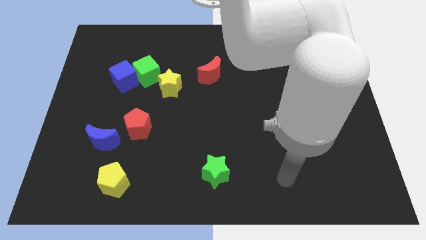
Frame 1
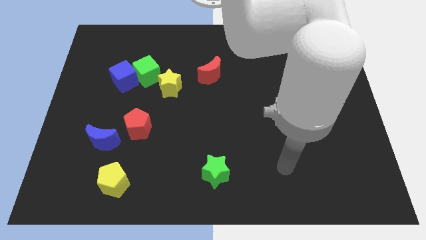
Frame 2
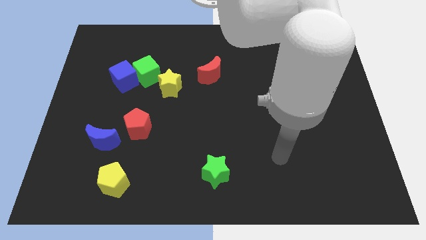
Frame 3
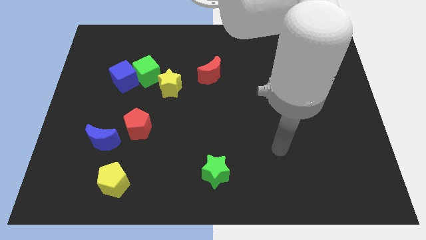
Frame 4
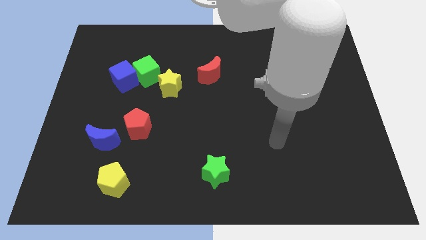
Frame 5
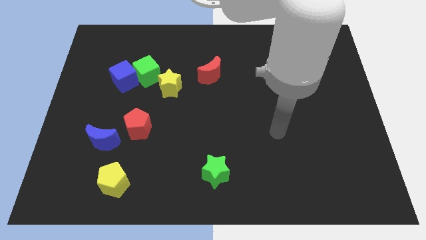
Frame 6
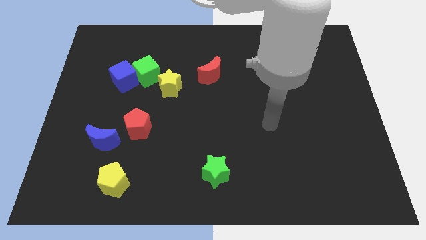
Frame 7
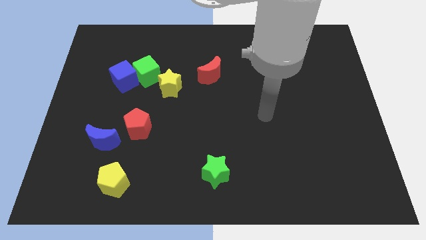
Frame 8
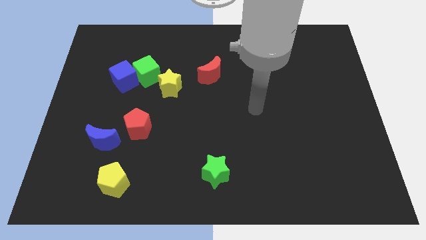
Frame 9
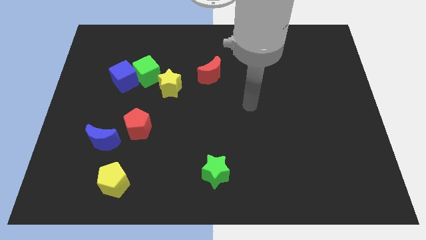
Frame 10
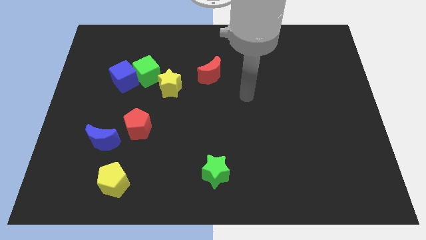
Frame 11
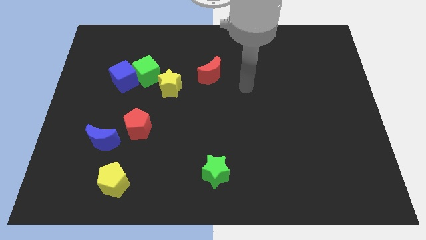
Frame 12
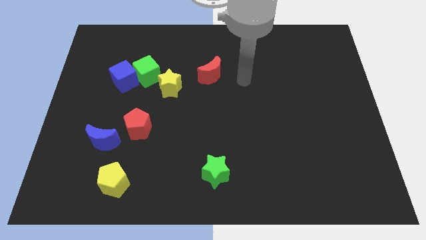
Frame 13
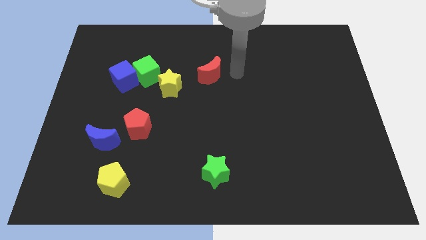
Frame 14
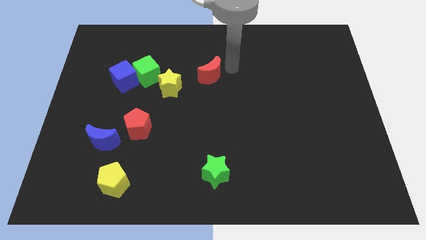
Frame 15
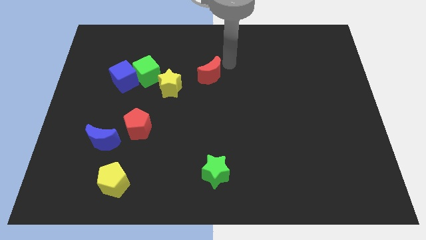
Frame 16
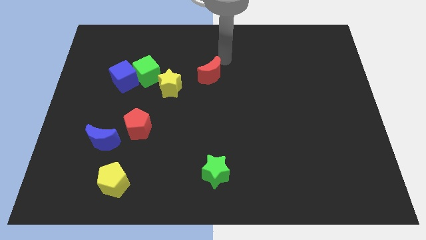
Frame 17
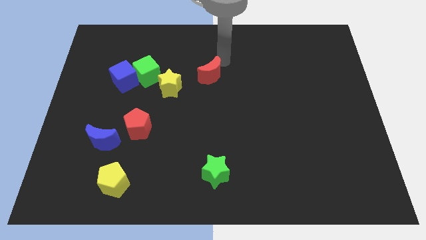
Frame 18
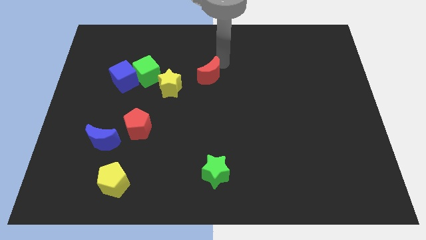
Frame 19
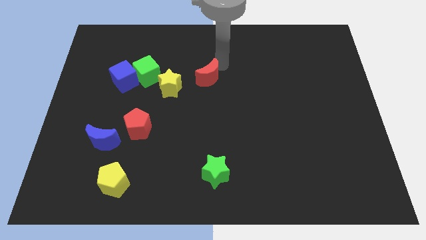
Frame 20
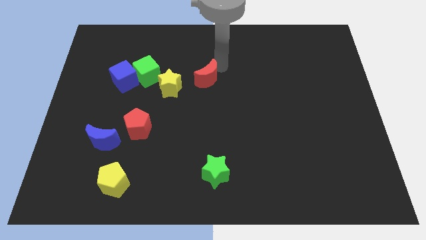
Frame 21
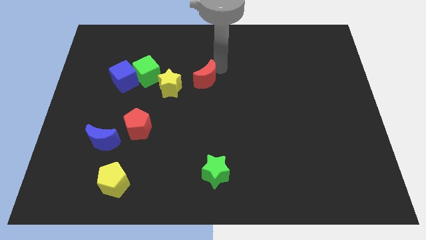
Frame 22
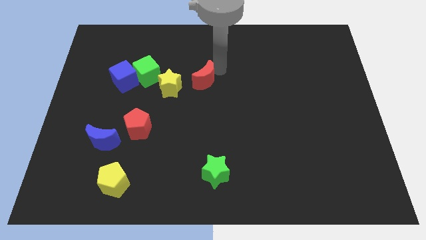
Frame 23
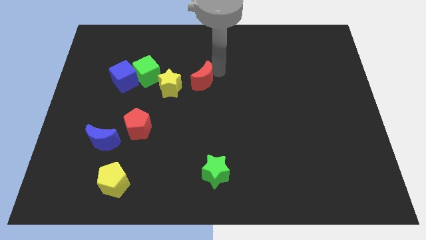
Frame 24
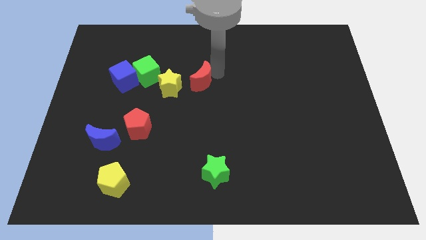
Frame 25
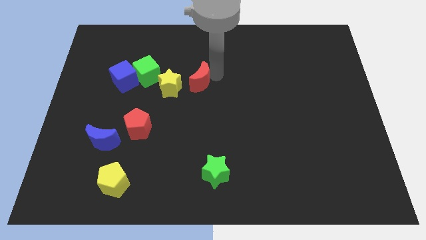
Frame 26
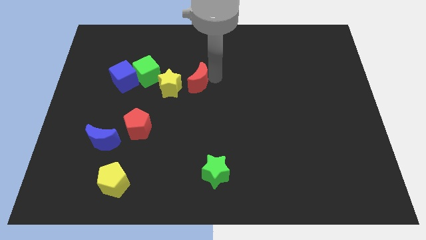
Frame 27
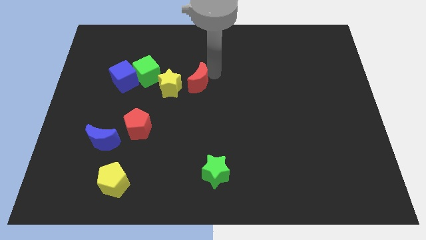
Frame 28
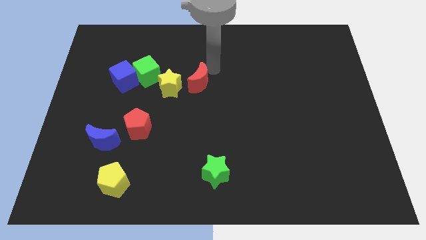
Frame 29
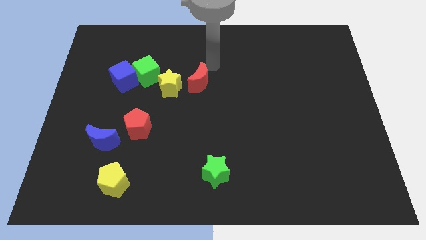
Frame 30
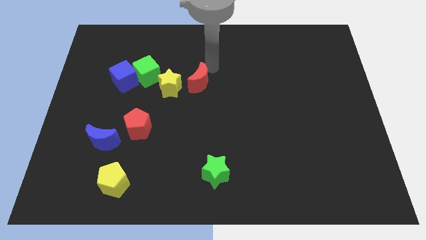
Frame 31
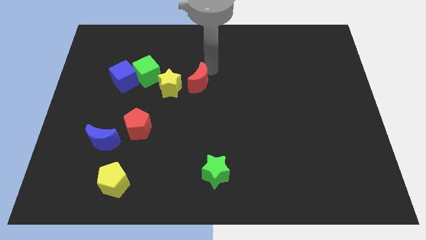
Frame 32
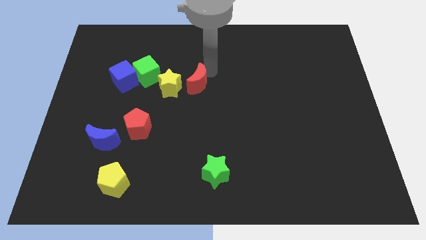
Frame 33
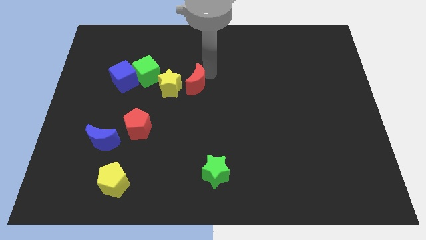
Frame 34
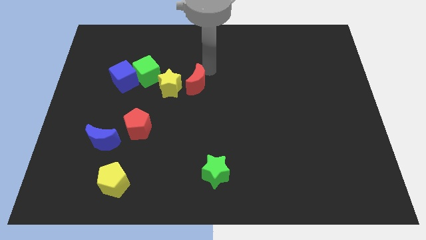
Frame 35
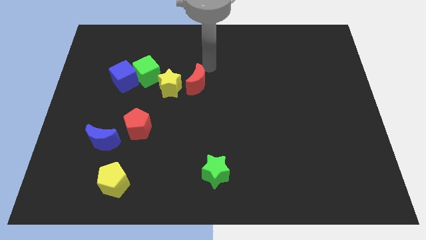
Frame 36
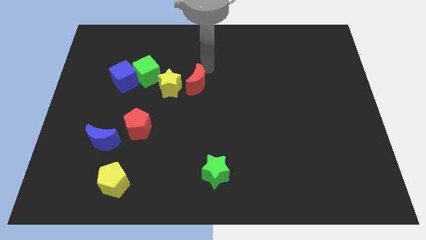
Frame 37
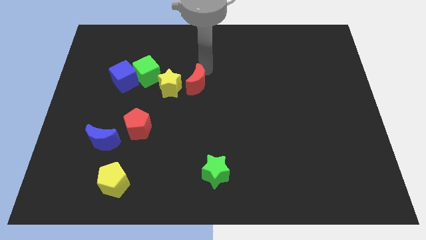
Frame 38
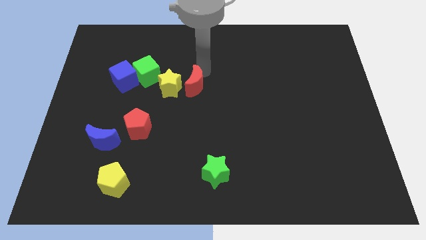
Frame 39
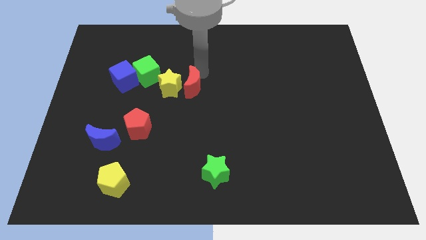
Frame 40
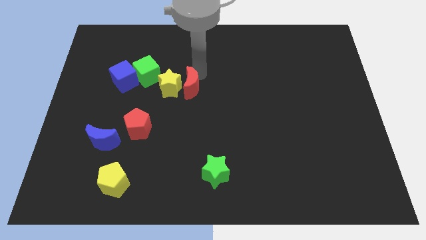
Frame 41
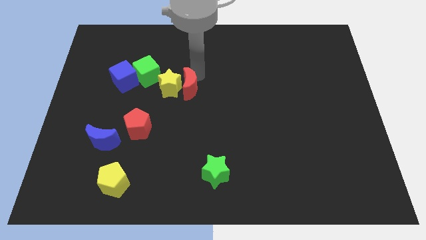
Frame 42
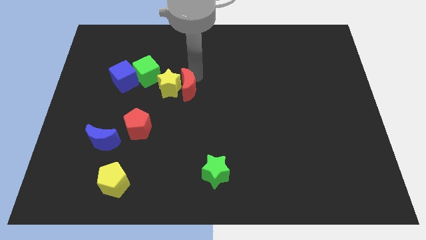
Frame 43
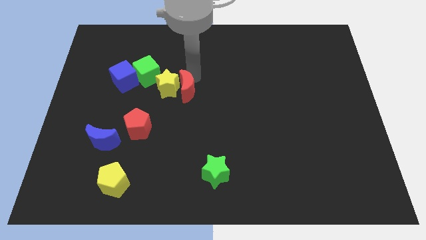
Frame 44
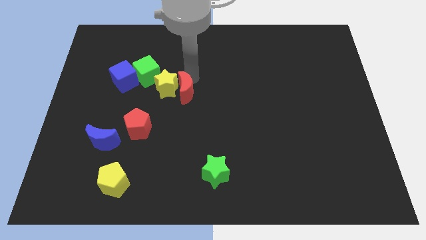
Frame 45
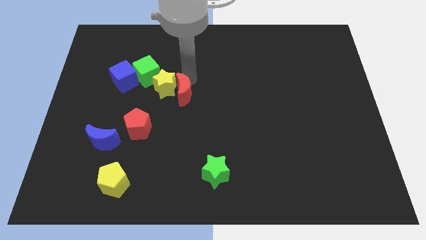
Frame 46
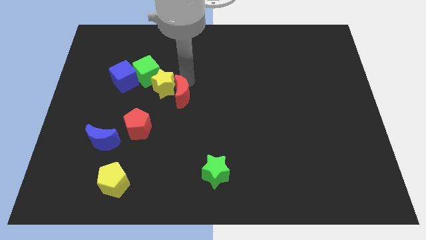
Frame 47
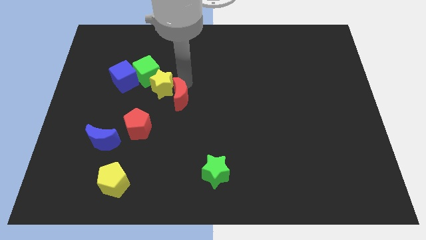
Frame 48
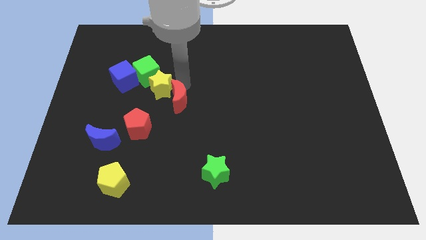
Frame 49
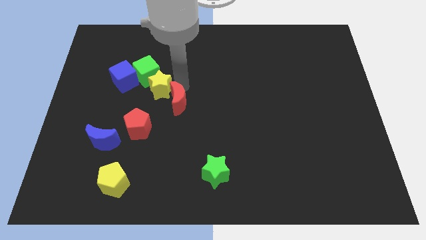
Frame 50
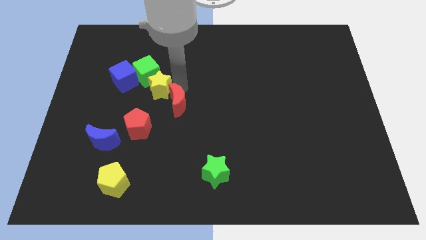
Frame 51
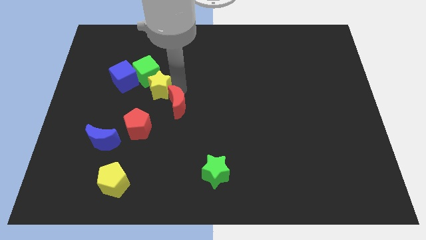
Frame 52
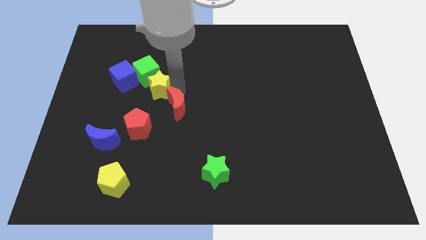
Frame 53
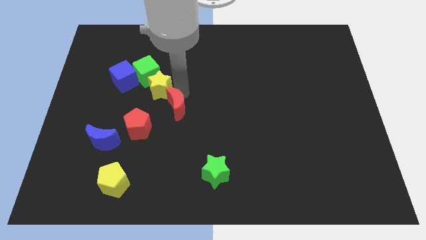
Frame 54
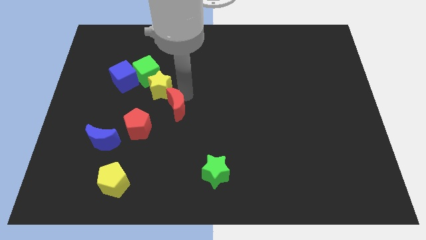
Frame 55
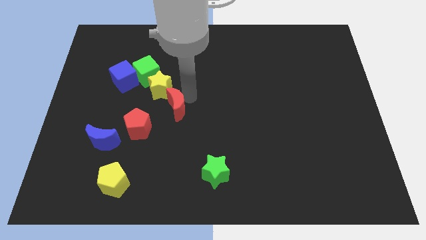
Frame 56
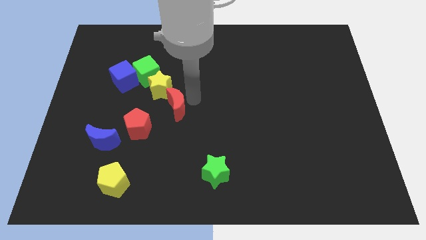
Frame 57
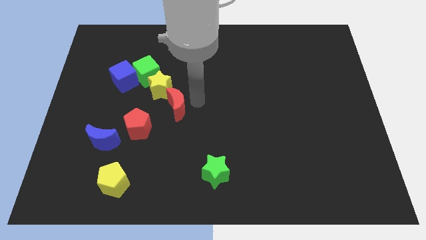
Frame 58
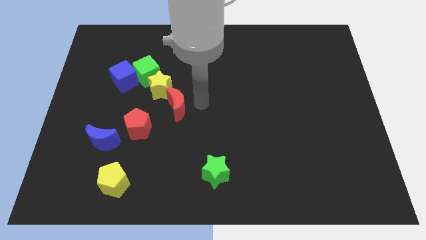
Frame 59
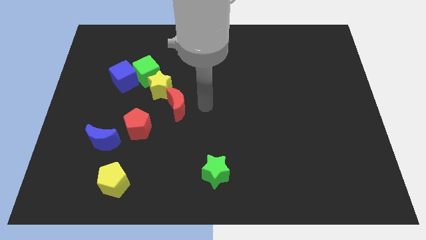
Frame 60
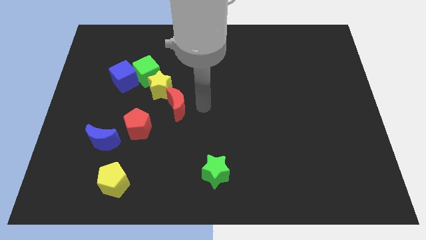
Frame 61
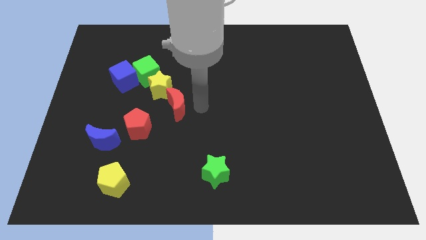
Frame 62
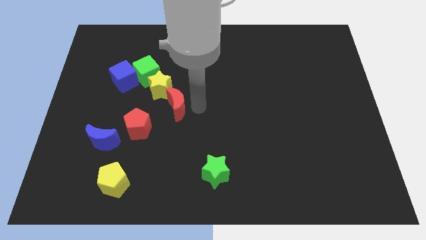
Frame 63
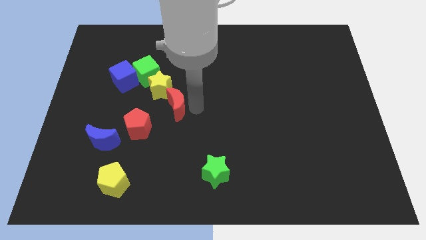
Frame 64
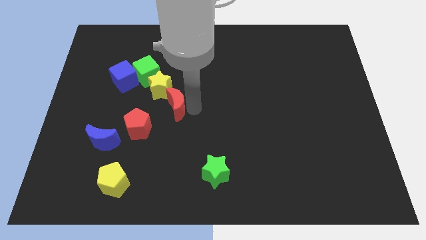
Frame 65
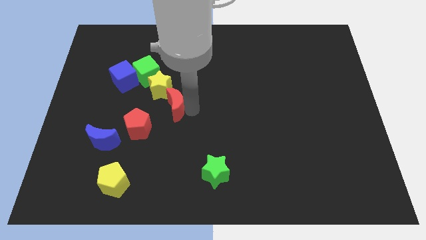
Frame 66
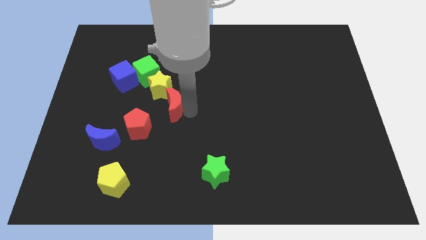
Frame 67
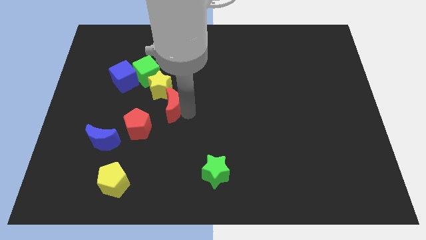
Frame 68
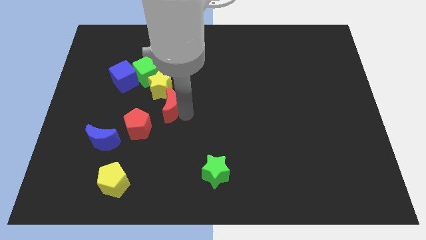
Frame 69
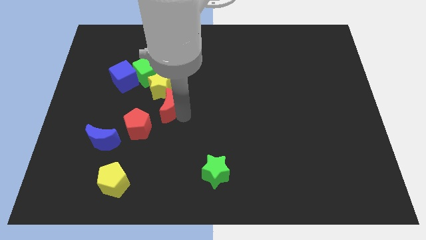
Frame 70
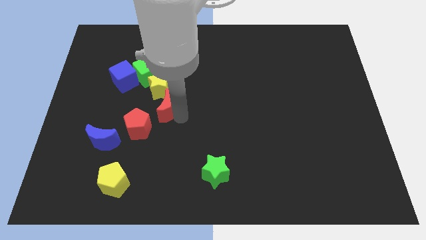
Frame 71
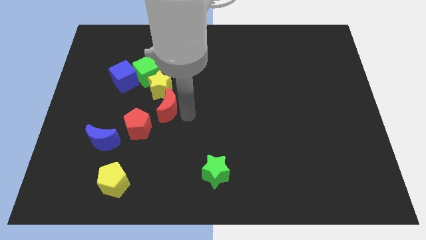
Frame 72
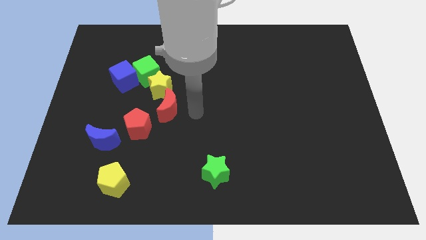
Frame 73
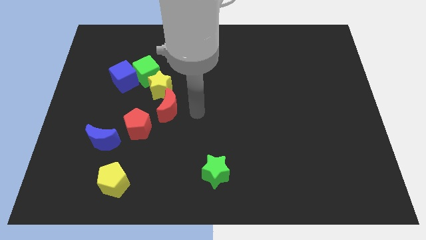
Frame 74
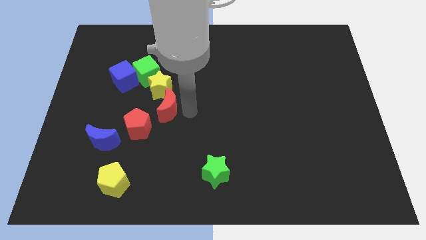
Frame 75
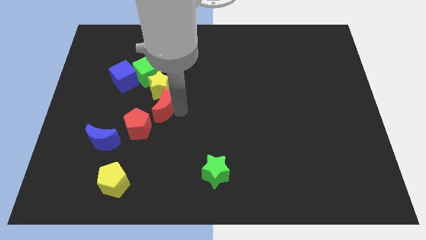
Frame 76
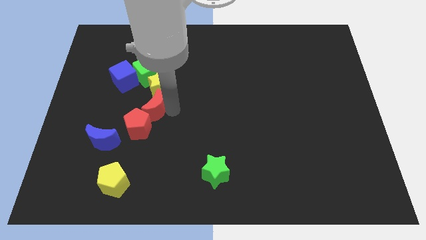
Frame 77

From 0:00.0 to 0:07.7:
push the red moon diagonally down and to the left of the yellow star
